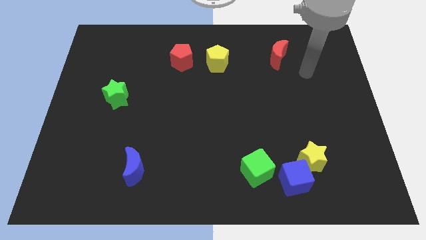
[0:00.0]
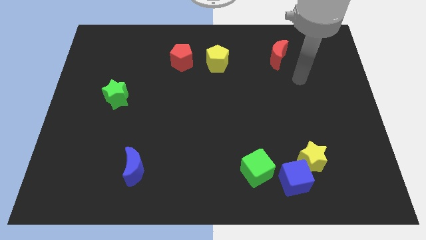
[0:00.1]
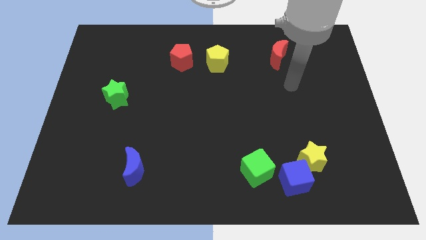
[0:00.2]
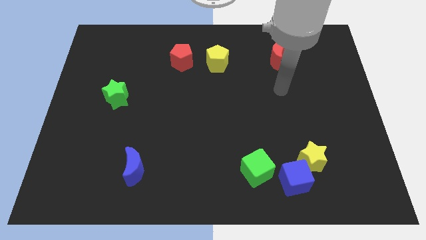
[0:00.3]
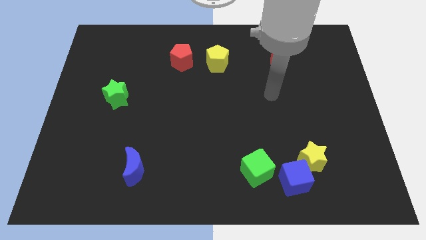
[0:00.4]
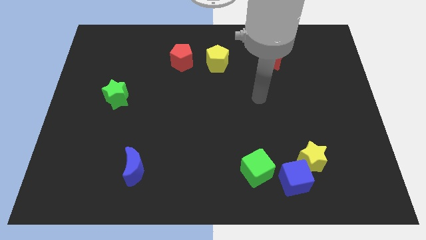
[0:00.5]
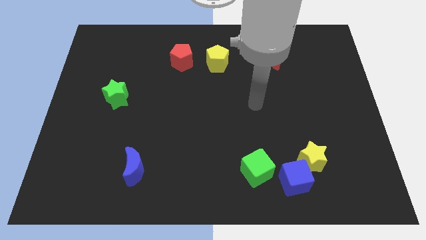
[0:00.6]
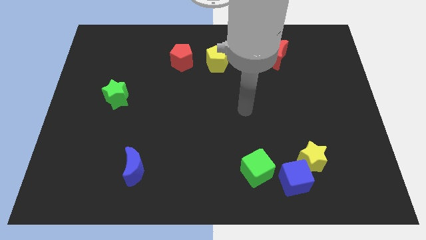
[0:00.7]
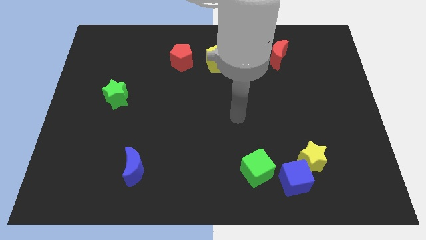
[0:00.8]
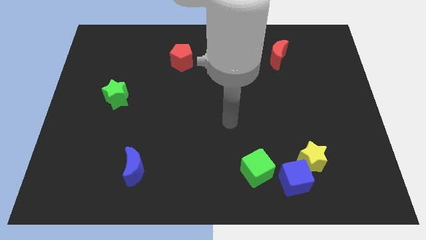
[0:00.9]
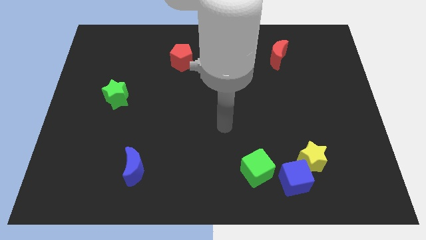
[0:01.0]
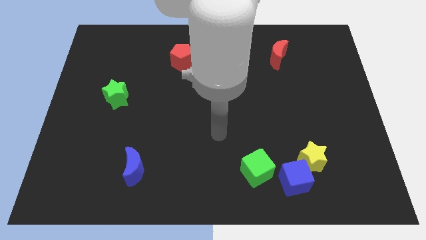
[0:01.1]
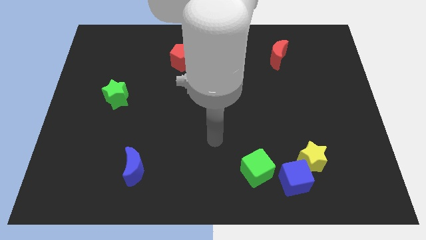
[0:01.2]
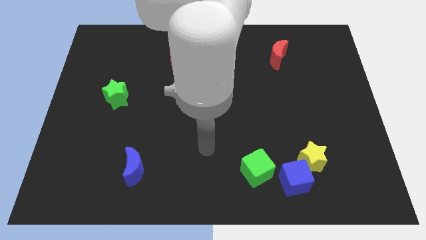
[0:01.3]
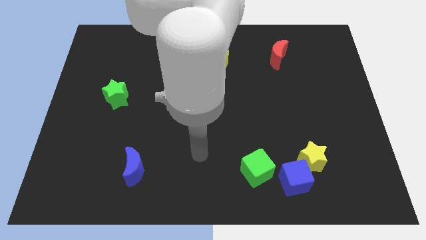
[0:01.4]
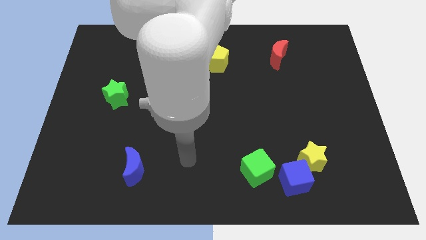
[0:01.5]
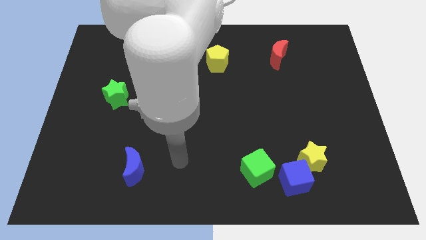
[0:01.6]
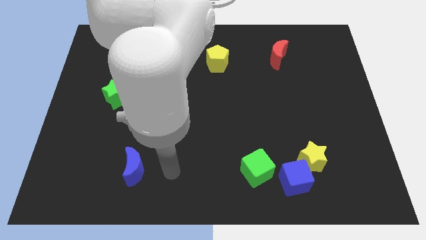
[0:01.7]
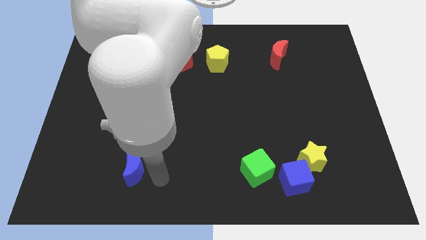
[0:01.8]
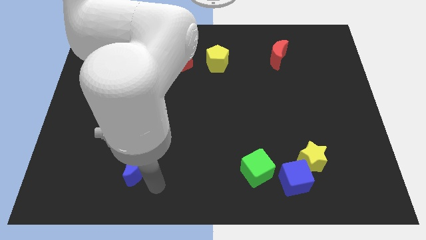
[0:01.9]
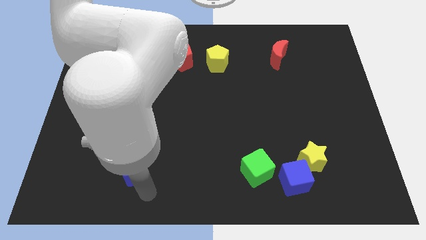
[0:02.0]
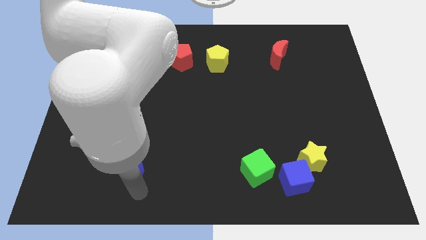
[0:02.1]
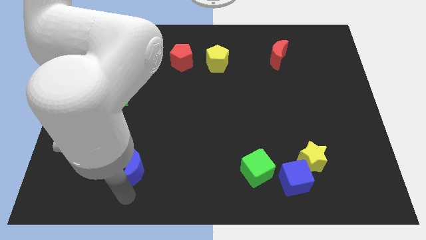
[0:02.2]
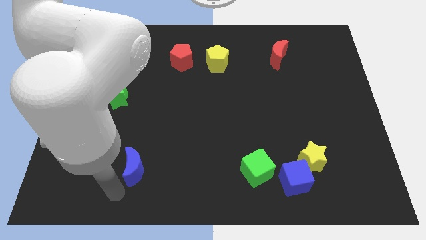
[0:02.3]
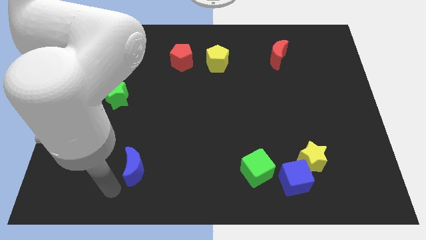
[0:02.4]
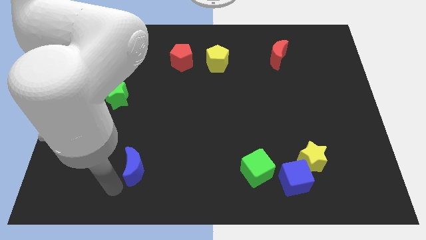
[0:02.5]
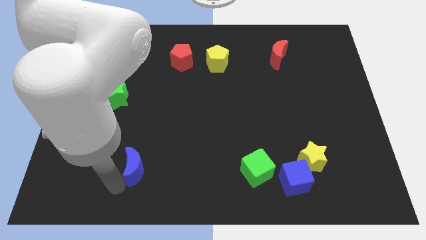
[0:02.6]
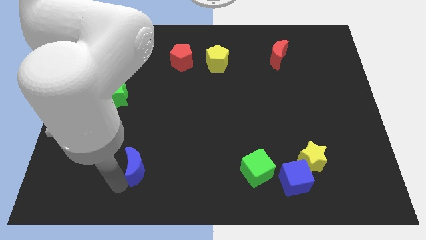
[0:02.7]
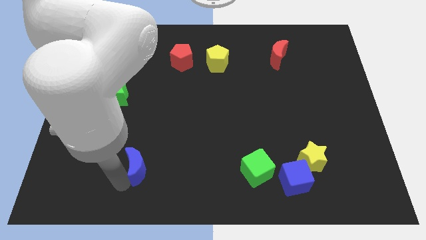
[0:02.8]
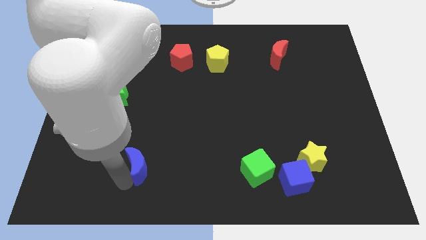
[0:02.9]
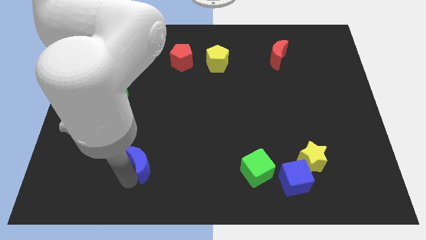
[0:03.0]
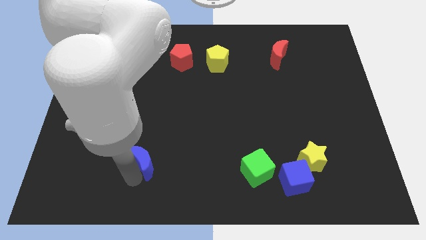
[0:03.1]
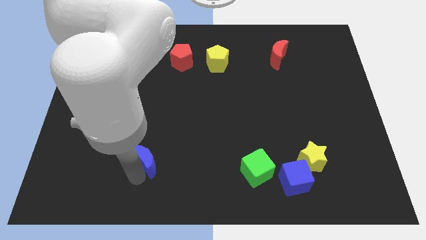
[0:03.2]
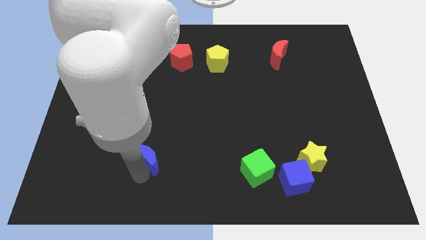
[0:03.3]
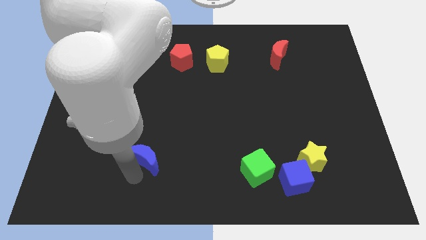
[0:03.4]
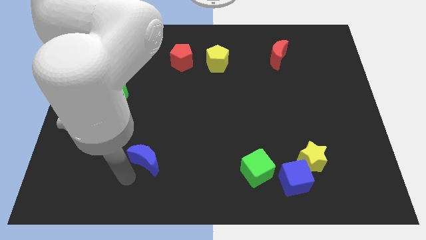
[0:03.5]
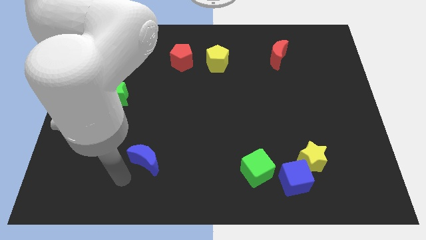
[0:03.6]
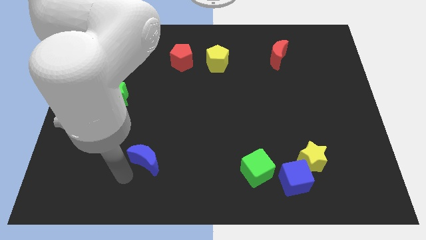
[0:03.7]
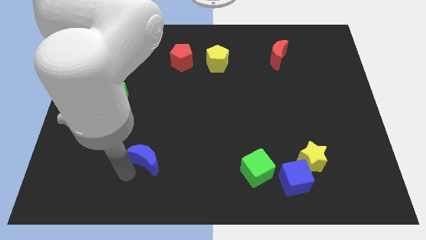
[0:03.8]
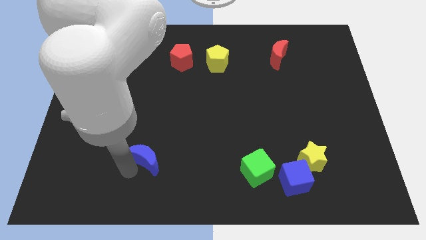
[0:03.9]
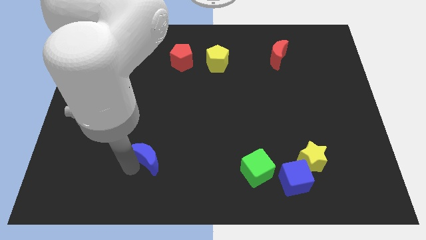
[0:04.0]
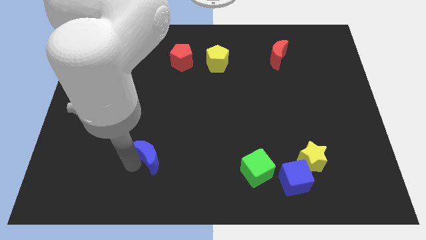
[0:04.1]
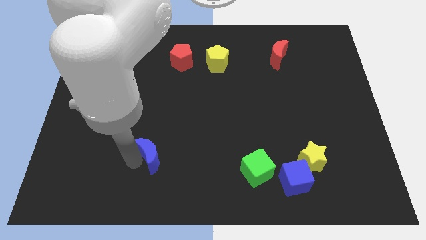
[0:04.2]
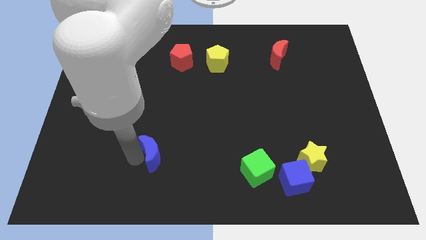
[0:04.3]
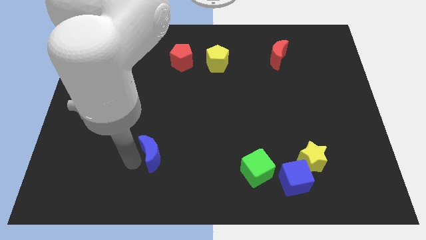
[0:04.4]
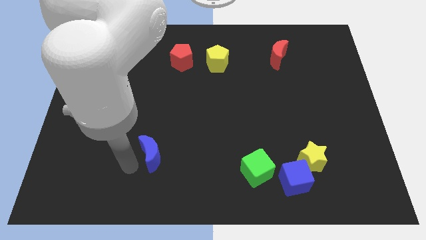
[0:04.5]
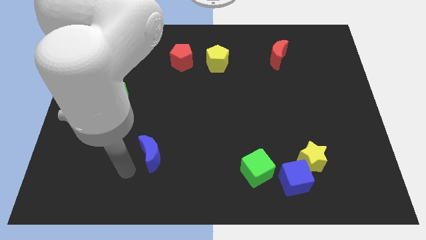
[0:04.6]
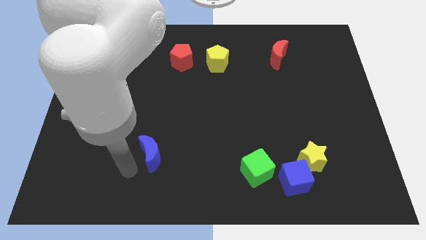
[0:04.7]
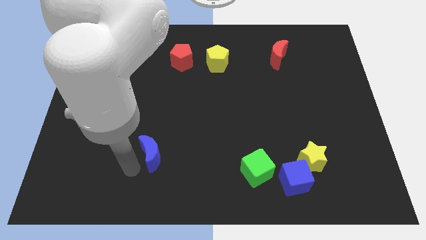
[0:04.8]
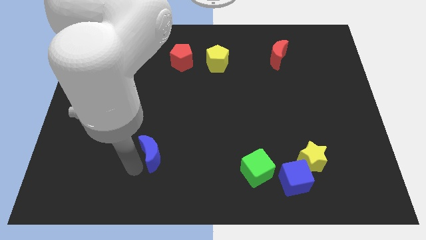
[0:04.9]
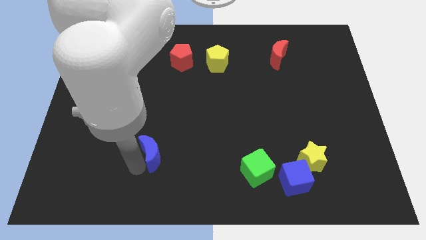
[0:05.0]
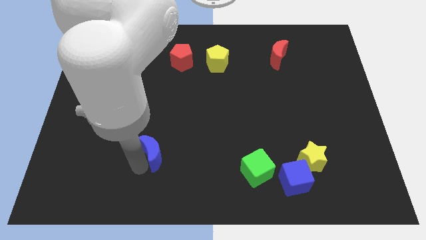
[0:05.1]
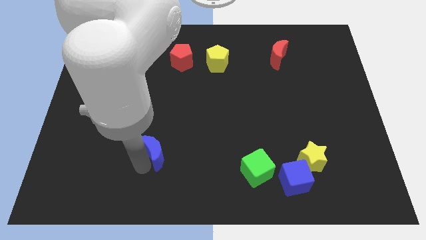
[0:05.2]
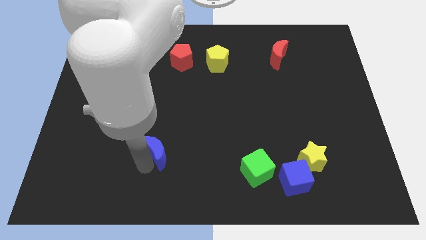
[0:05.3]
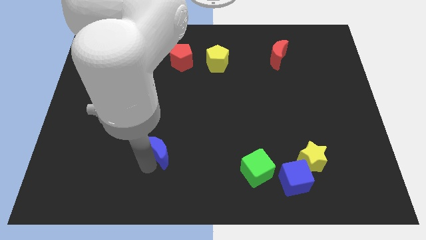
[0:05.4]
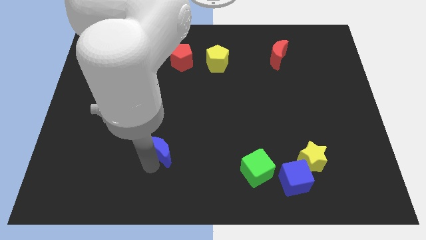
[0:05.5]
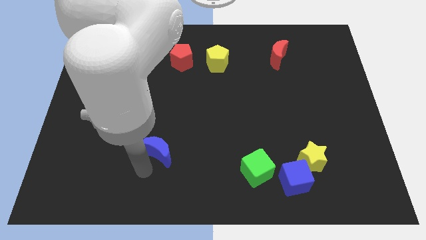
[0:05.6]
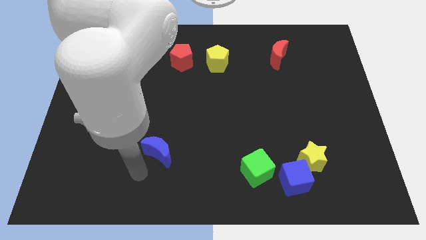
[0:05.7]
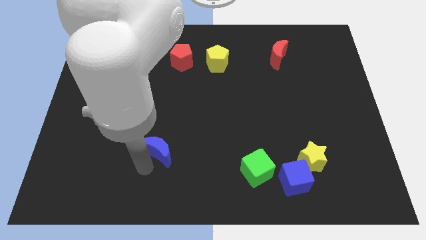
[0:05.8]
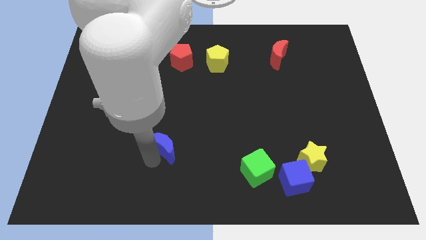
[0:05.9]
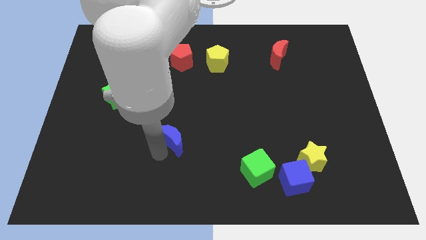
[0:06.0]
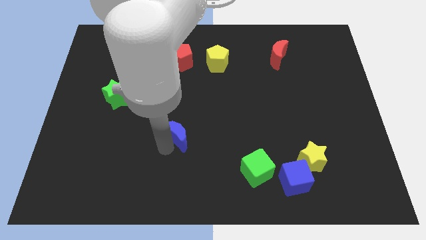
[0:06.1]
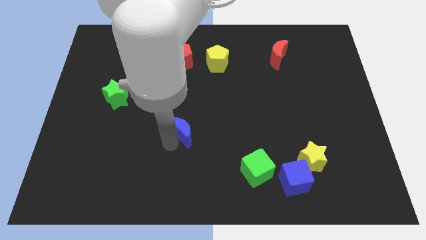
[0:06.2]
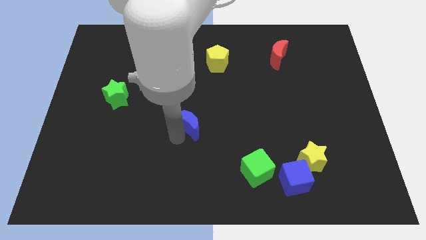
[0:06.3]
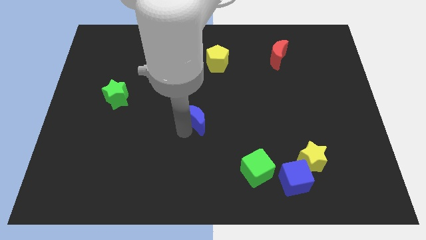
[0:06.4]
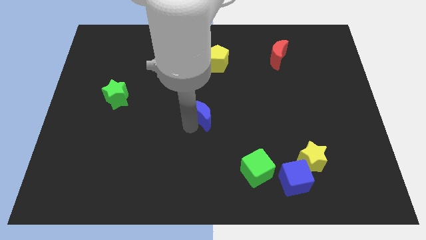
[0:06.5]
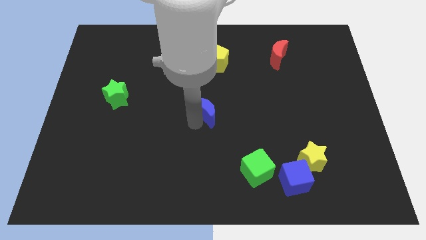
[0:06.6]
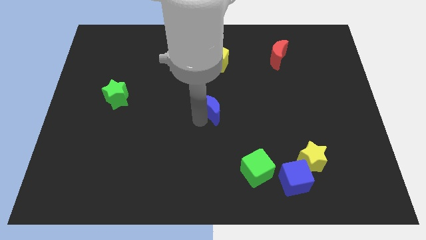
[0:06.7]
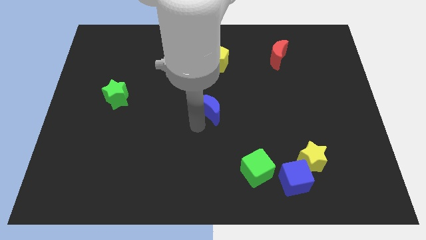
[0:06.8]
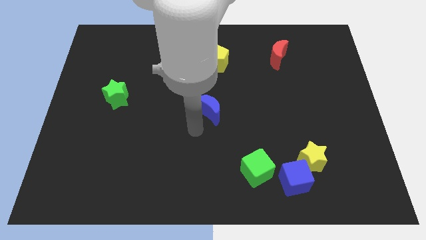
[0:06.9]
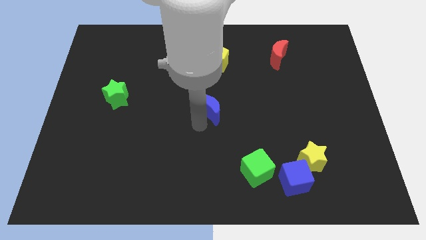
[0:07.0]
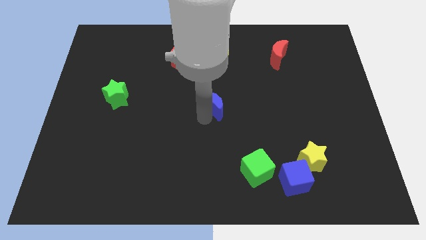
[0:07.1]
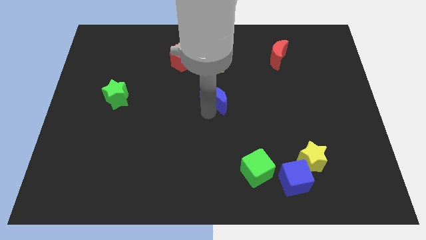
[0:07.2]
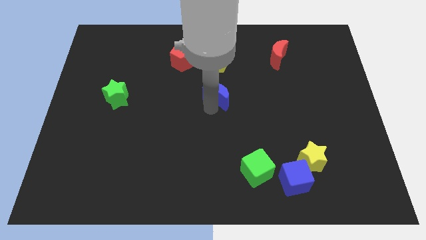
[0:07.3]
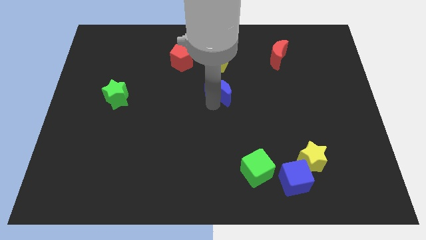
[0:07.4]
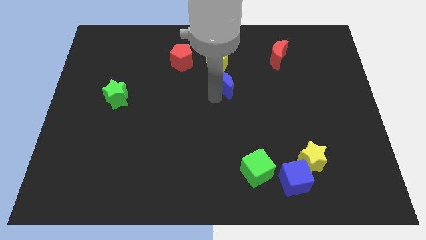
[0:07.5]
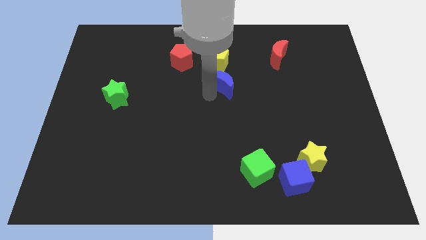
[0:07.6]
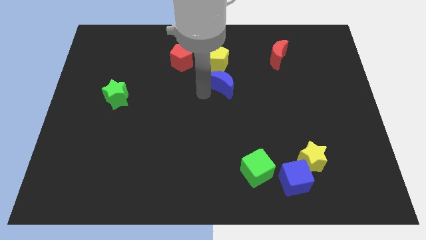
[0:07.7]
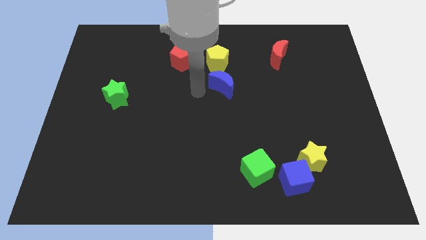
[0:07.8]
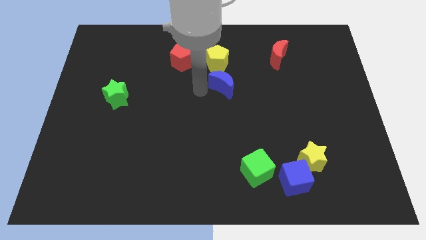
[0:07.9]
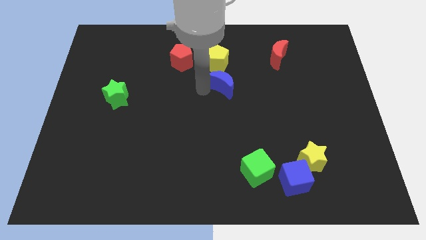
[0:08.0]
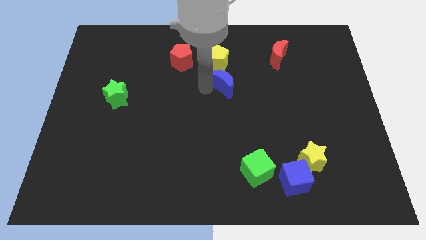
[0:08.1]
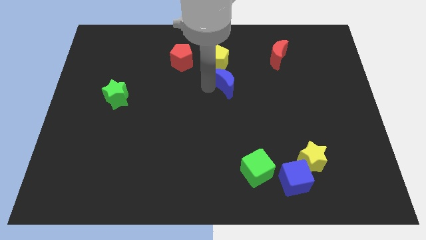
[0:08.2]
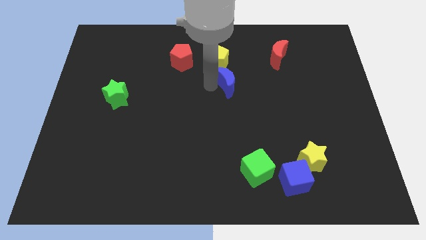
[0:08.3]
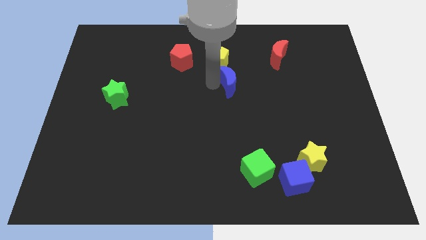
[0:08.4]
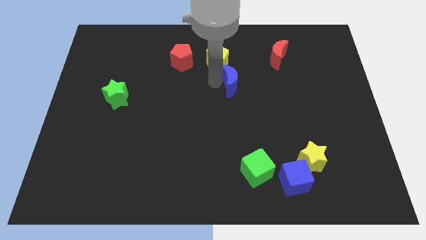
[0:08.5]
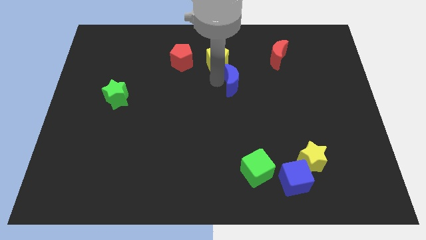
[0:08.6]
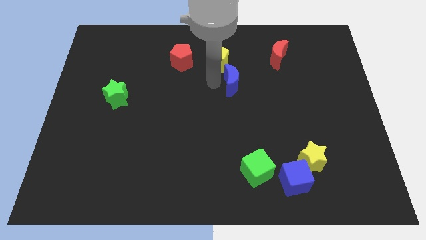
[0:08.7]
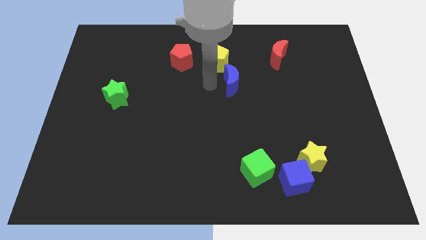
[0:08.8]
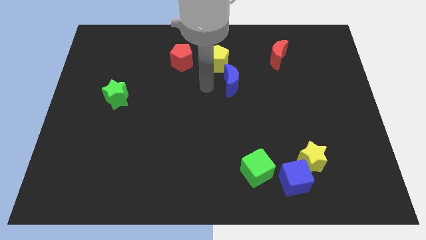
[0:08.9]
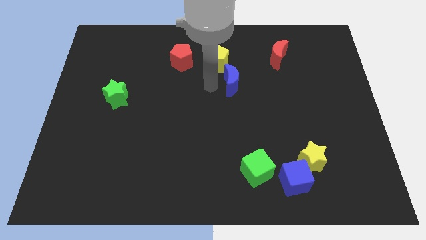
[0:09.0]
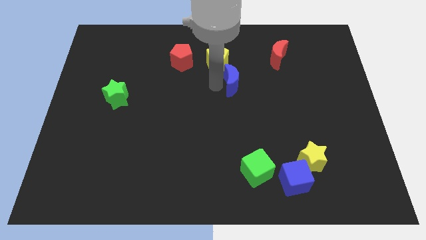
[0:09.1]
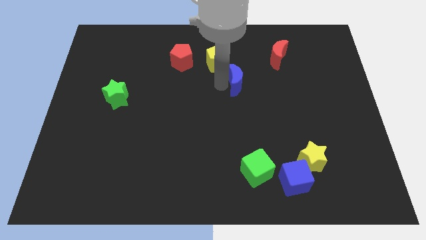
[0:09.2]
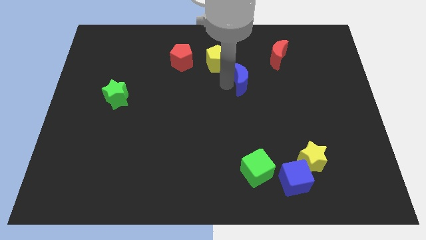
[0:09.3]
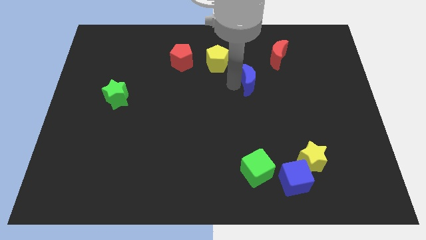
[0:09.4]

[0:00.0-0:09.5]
slide the blue moon to the bottom left side of the red moon
